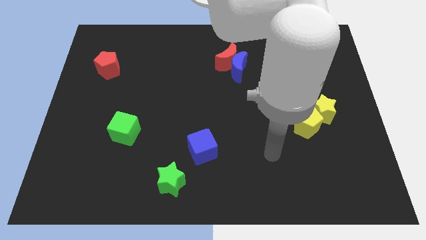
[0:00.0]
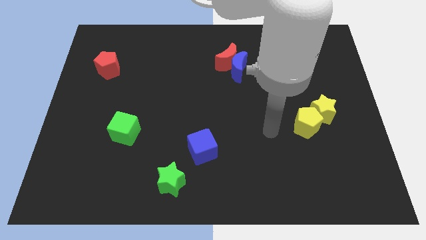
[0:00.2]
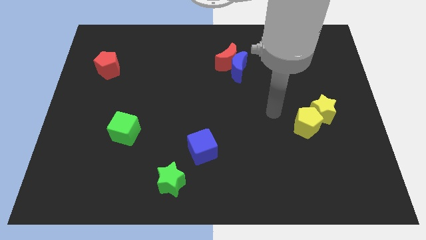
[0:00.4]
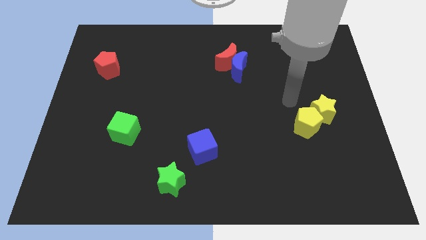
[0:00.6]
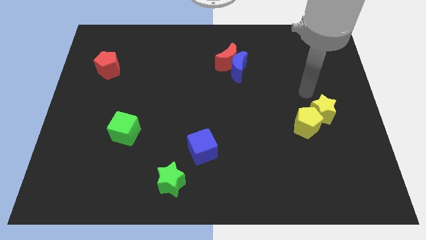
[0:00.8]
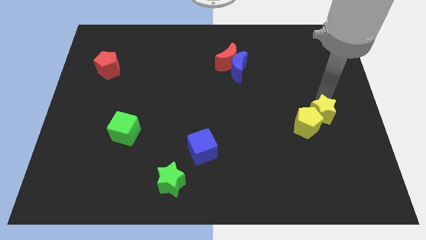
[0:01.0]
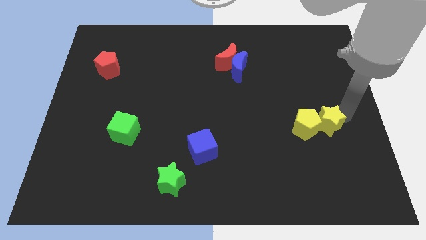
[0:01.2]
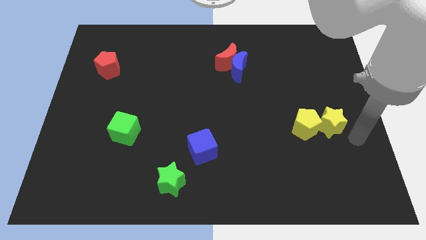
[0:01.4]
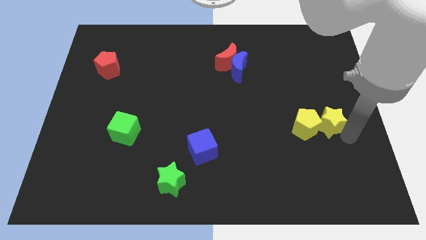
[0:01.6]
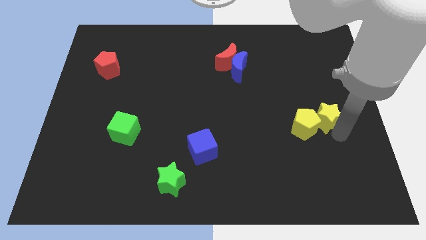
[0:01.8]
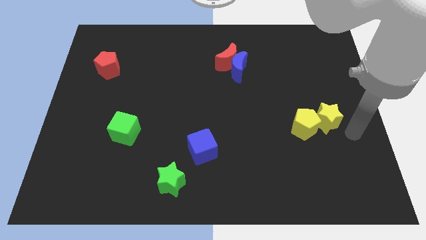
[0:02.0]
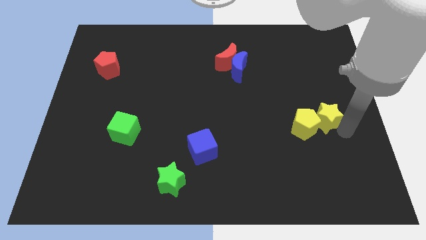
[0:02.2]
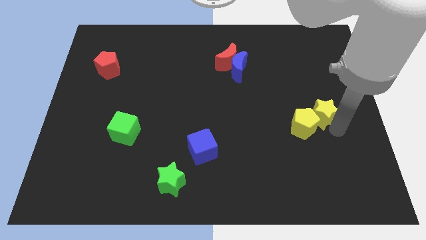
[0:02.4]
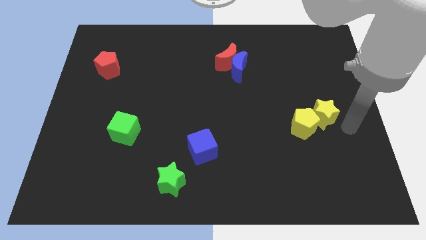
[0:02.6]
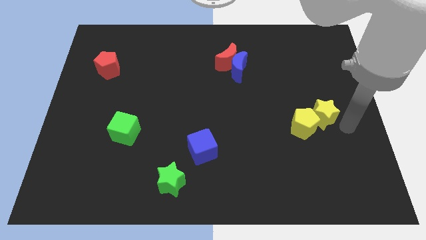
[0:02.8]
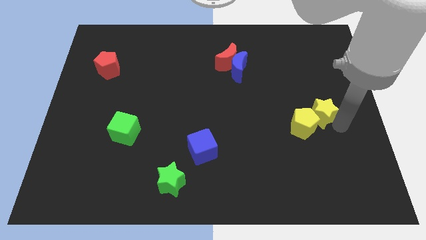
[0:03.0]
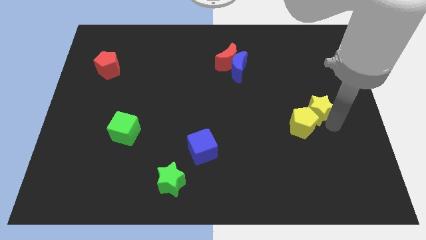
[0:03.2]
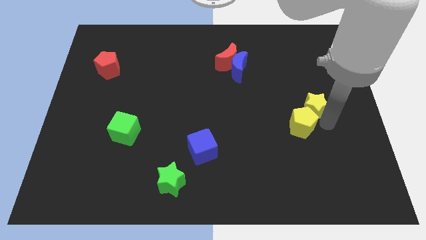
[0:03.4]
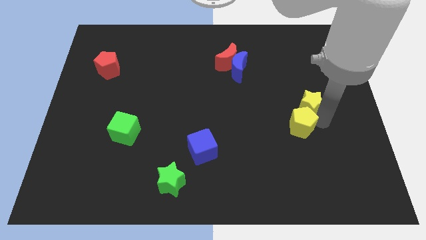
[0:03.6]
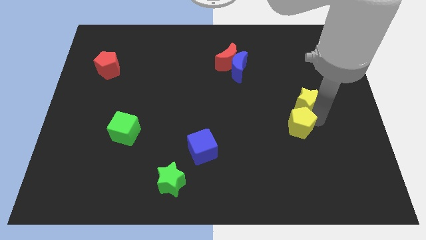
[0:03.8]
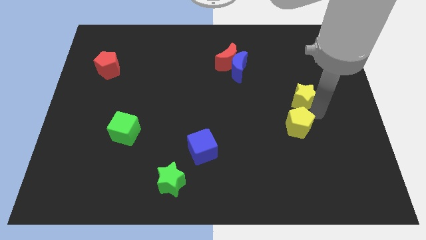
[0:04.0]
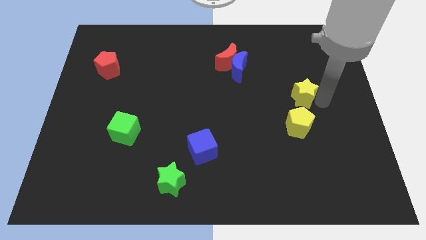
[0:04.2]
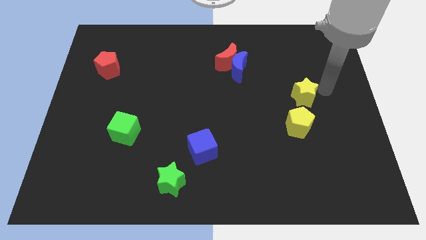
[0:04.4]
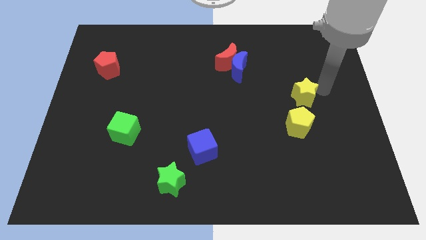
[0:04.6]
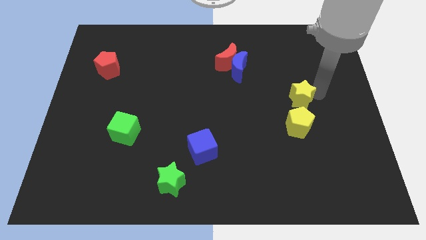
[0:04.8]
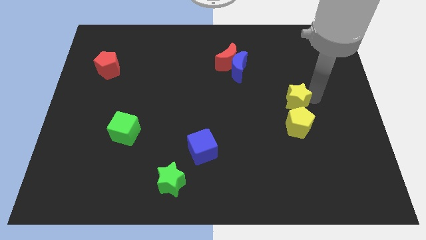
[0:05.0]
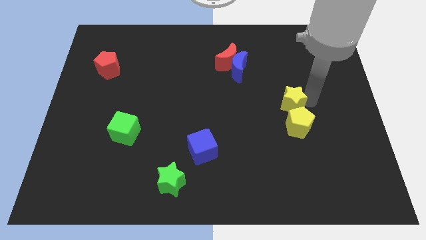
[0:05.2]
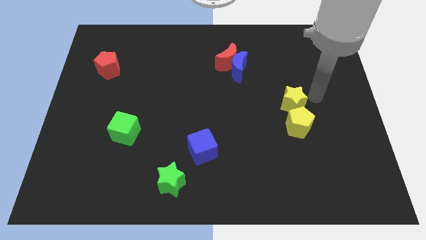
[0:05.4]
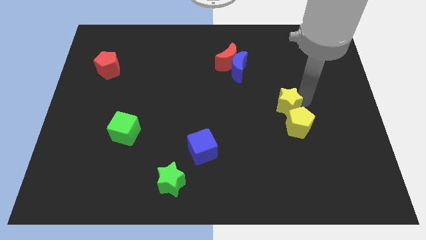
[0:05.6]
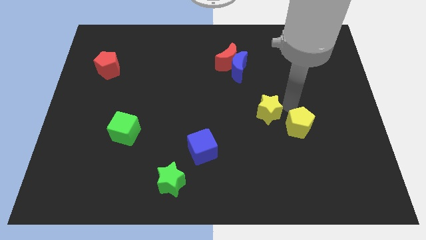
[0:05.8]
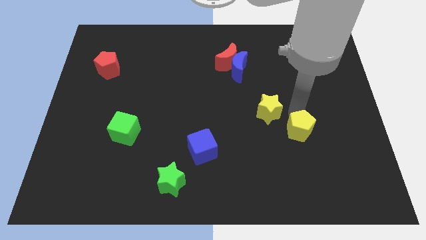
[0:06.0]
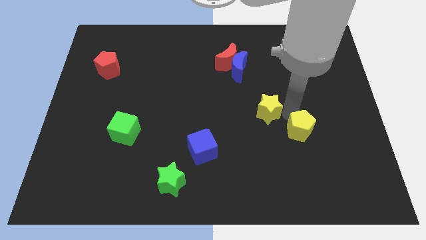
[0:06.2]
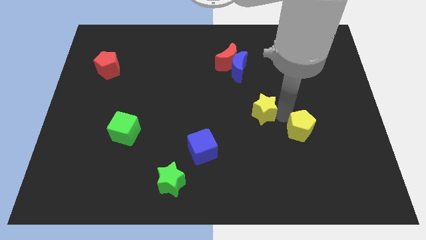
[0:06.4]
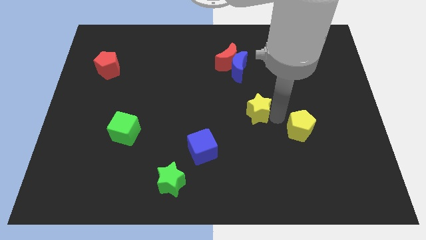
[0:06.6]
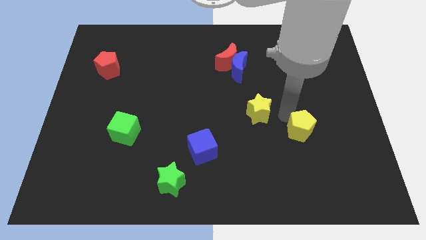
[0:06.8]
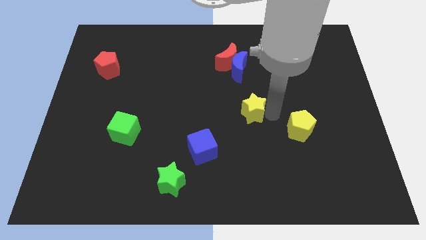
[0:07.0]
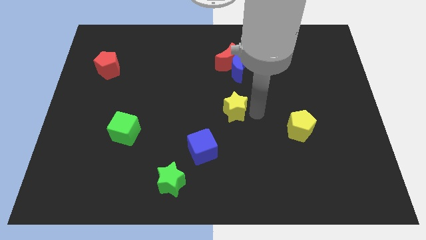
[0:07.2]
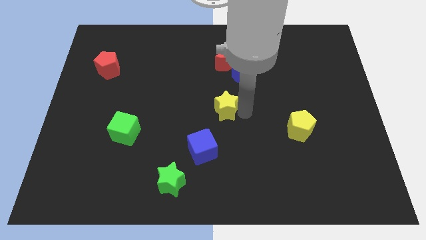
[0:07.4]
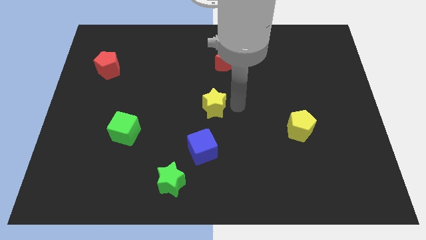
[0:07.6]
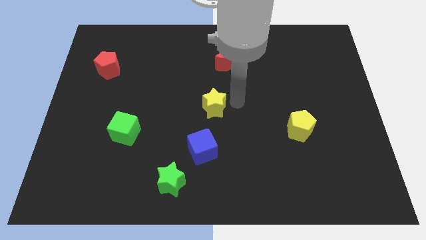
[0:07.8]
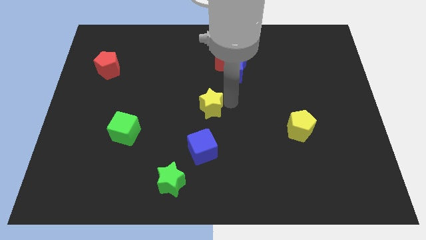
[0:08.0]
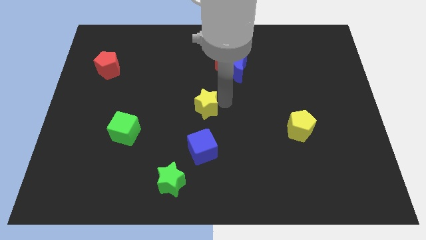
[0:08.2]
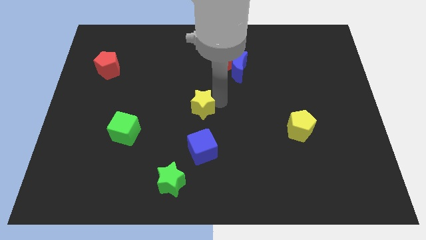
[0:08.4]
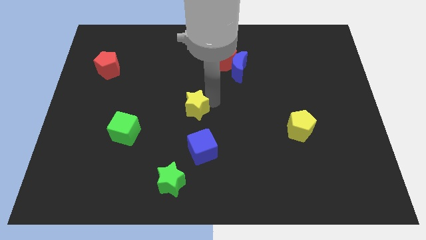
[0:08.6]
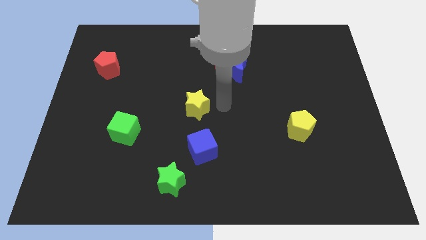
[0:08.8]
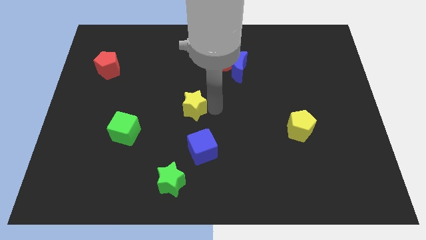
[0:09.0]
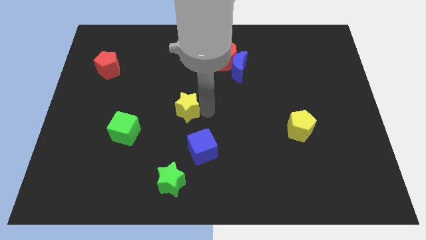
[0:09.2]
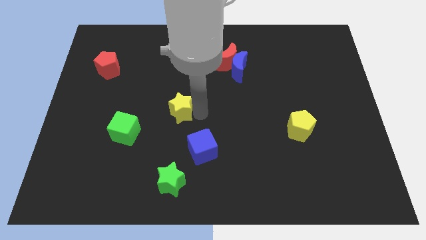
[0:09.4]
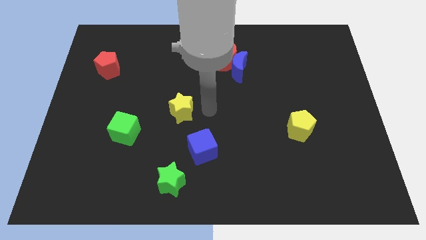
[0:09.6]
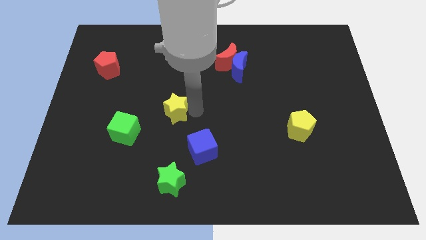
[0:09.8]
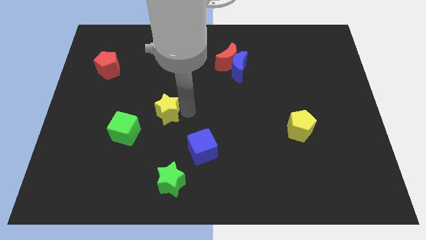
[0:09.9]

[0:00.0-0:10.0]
move the yellow star diagonally up and to the right of the green cube

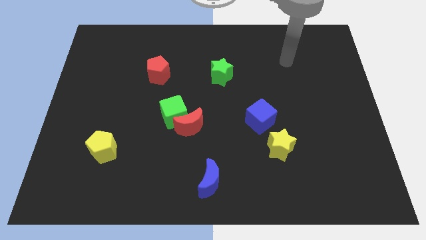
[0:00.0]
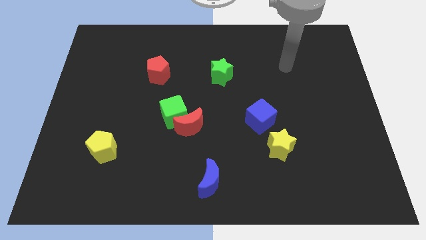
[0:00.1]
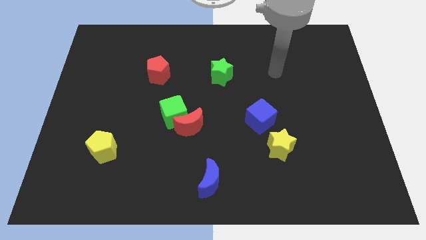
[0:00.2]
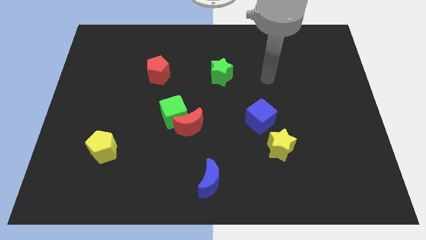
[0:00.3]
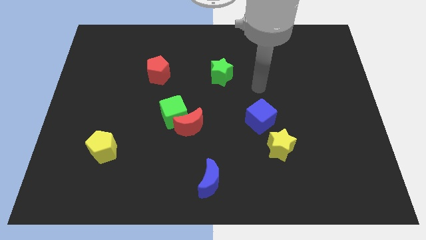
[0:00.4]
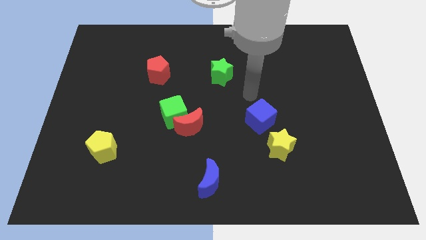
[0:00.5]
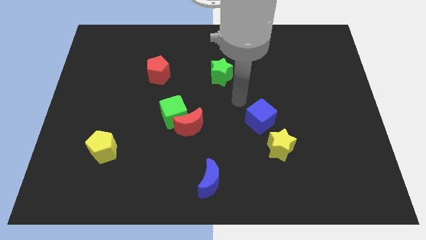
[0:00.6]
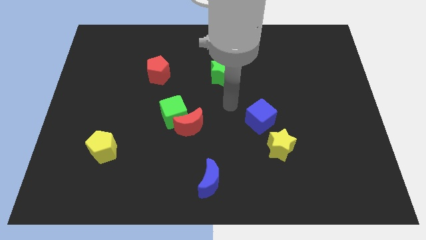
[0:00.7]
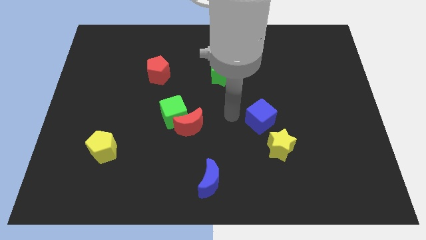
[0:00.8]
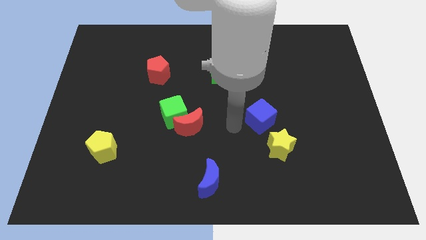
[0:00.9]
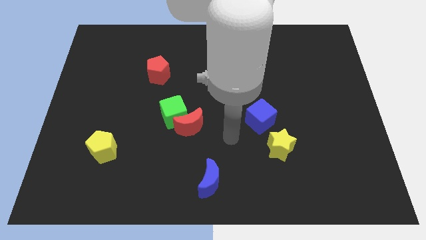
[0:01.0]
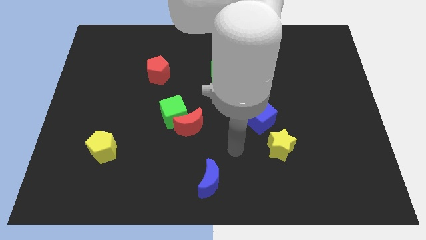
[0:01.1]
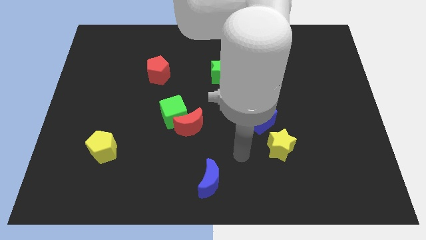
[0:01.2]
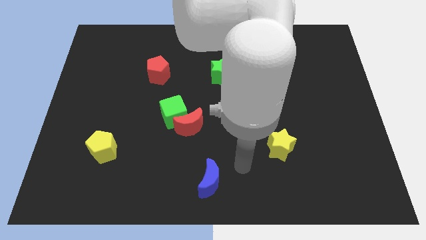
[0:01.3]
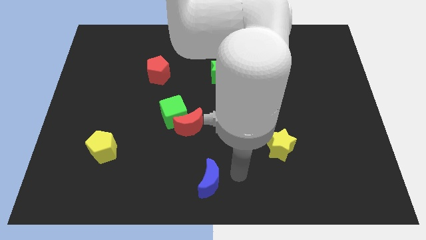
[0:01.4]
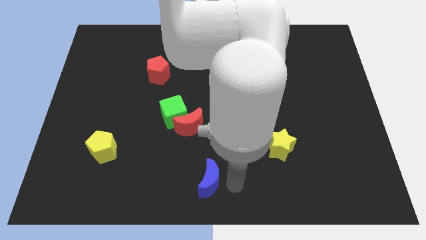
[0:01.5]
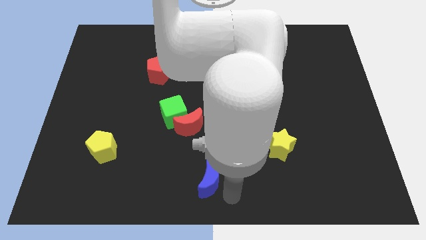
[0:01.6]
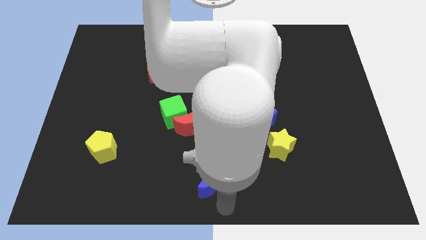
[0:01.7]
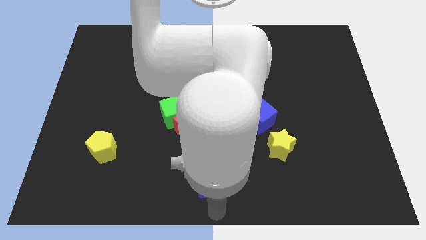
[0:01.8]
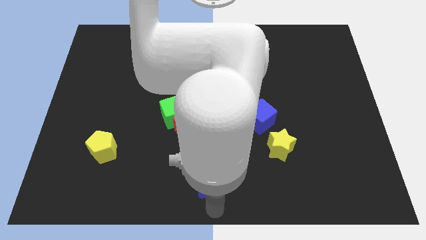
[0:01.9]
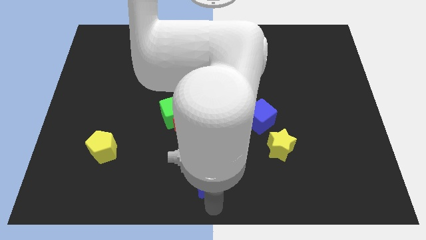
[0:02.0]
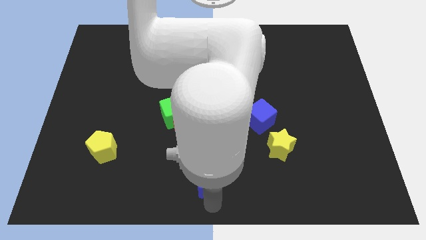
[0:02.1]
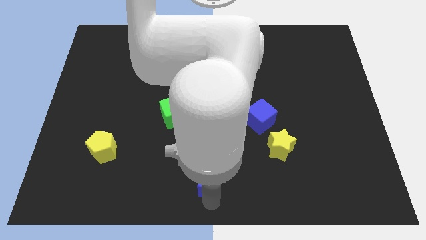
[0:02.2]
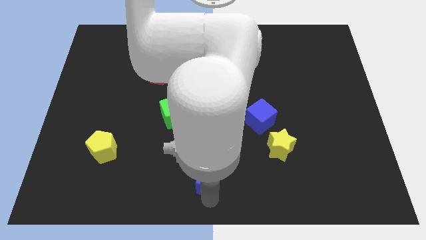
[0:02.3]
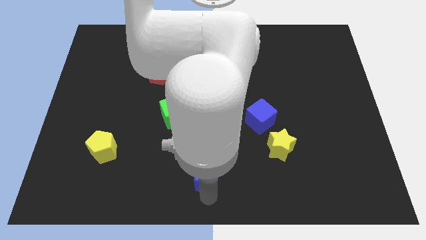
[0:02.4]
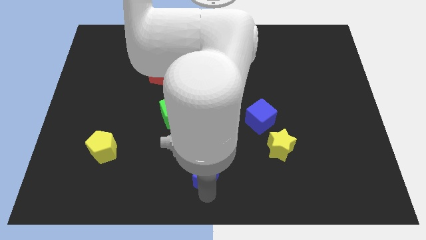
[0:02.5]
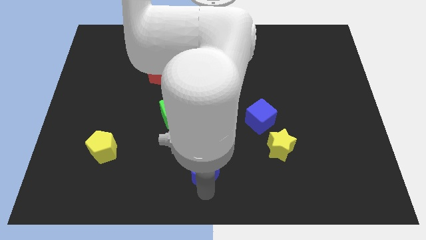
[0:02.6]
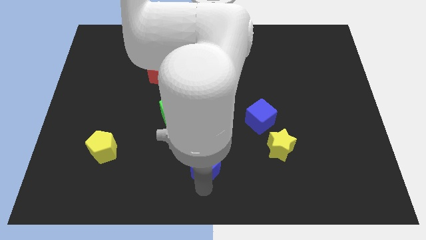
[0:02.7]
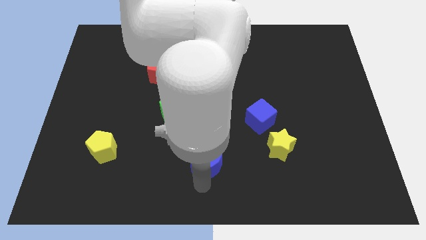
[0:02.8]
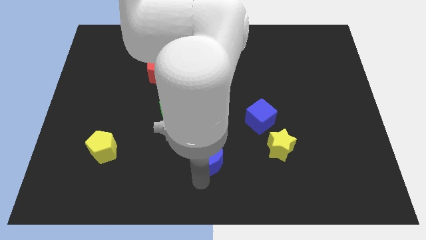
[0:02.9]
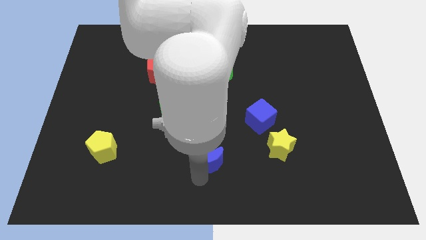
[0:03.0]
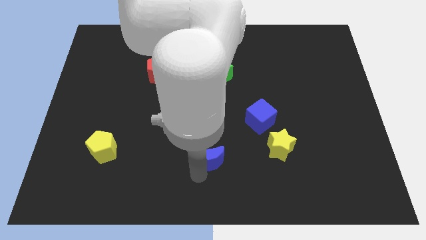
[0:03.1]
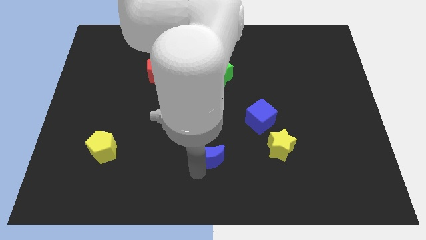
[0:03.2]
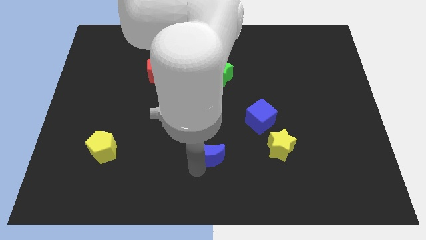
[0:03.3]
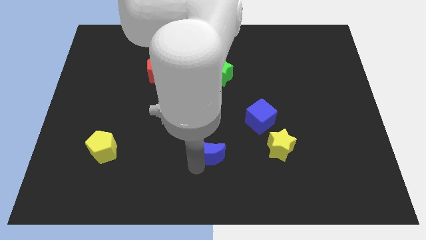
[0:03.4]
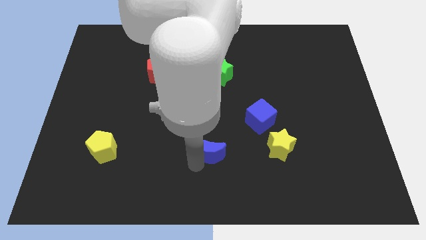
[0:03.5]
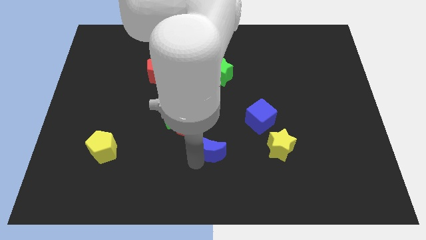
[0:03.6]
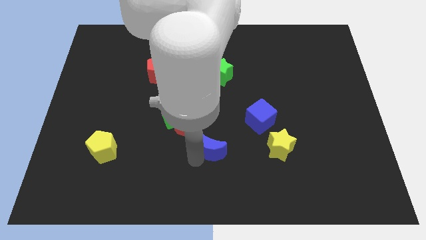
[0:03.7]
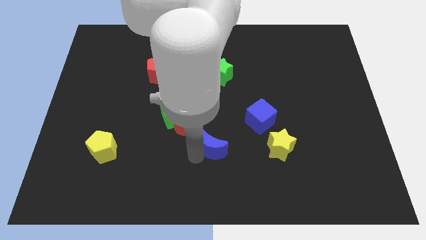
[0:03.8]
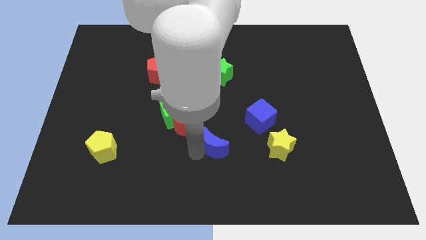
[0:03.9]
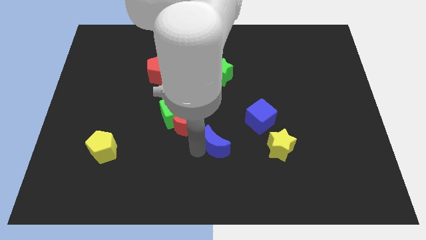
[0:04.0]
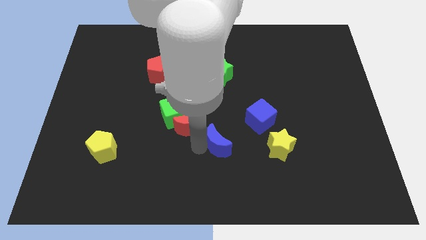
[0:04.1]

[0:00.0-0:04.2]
push the blue moon just right of the red moon
